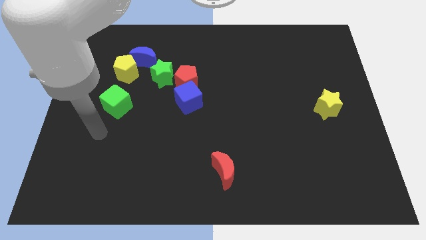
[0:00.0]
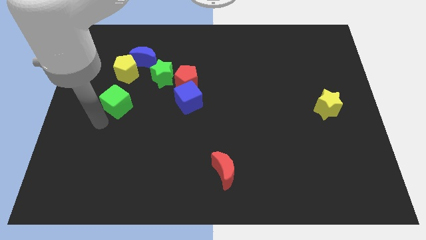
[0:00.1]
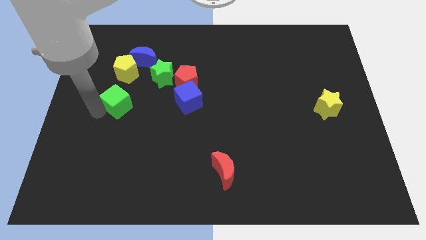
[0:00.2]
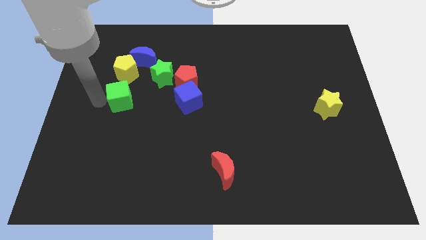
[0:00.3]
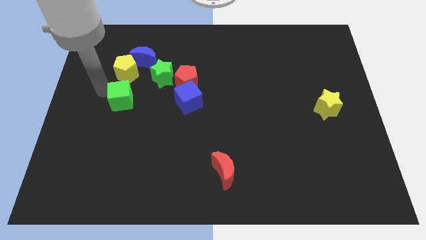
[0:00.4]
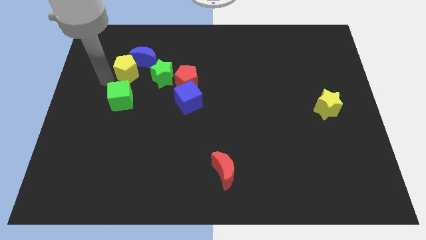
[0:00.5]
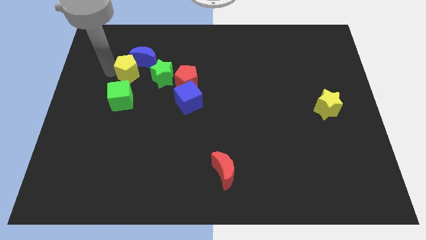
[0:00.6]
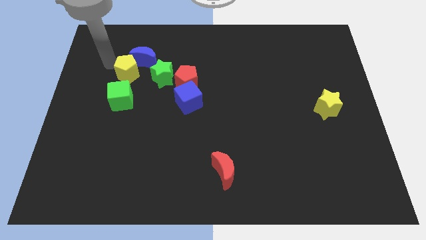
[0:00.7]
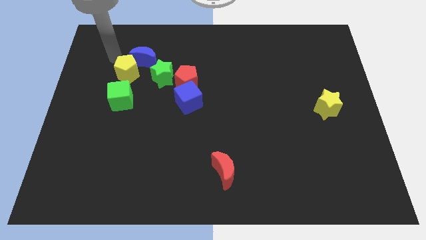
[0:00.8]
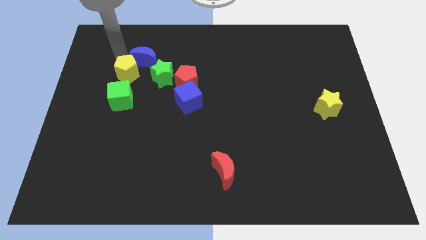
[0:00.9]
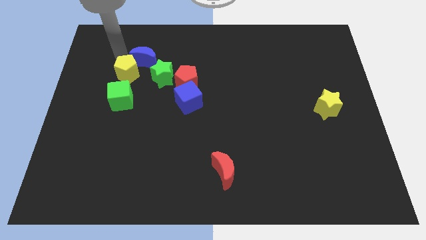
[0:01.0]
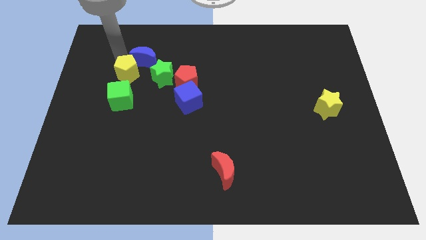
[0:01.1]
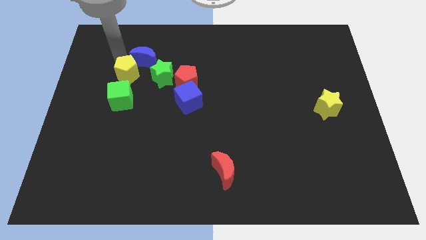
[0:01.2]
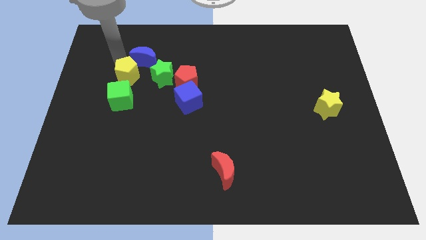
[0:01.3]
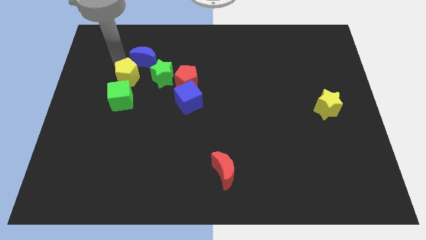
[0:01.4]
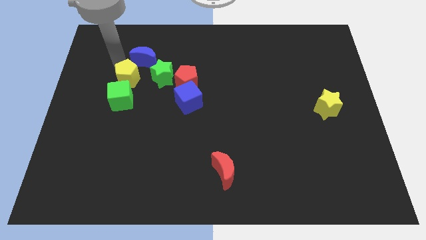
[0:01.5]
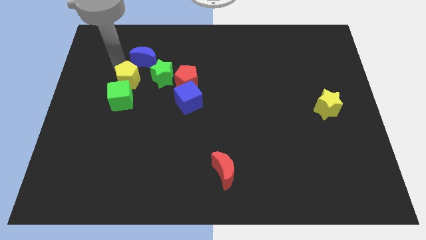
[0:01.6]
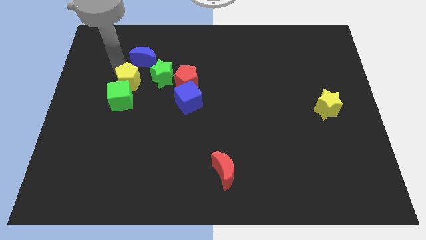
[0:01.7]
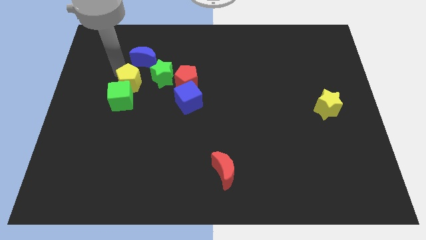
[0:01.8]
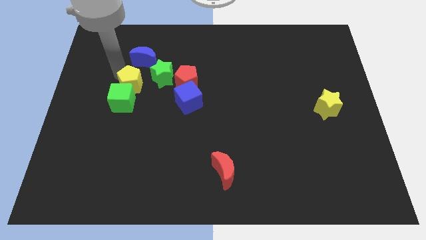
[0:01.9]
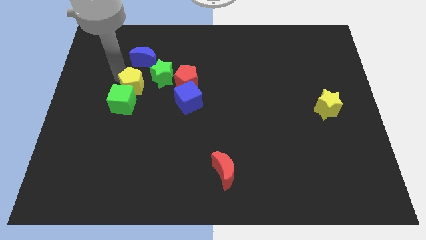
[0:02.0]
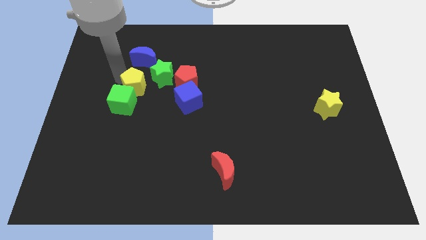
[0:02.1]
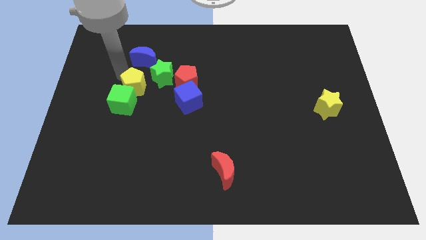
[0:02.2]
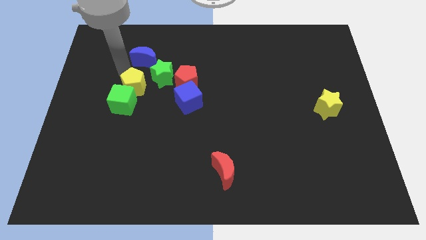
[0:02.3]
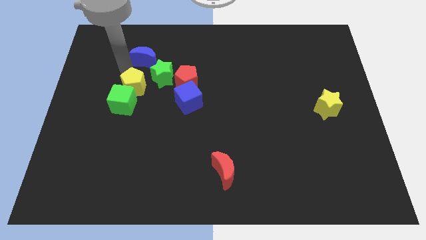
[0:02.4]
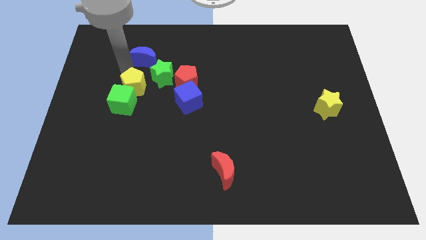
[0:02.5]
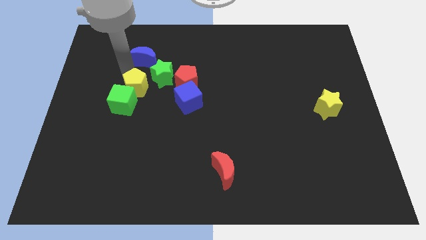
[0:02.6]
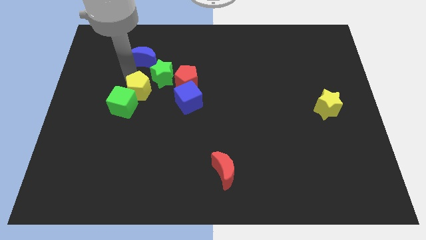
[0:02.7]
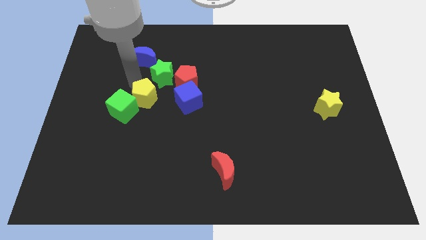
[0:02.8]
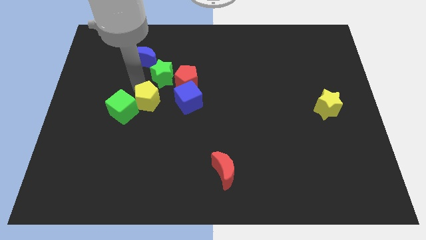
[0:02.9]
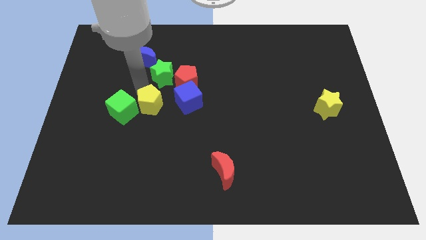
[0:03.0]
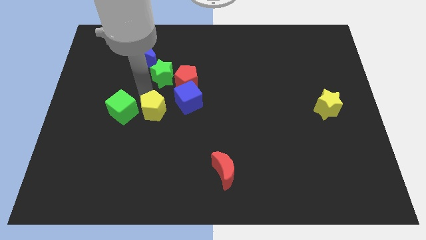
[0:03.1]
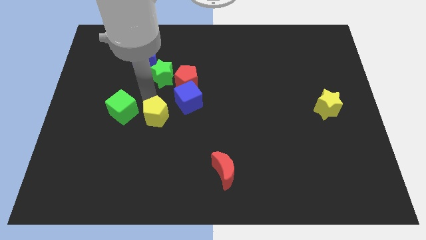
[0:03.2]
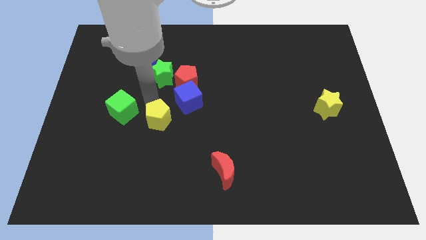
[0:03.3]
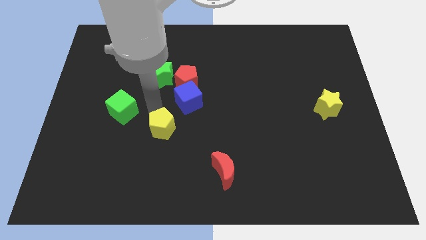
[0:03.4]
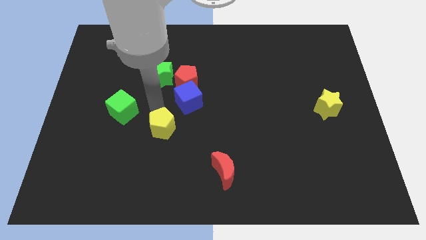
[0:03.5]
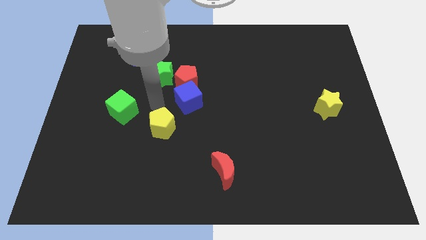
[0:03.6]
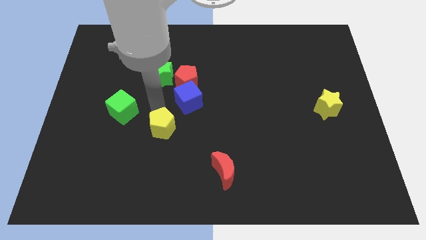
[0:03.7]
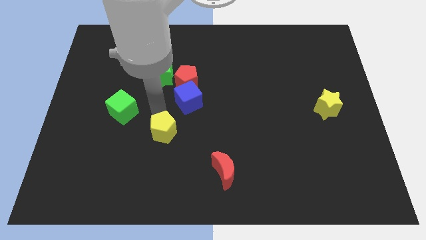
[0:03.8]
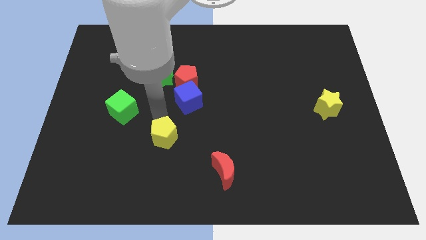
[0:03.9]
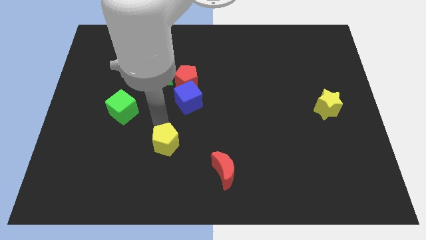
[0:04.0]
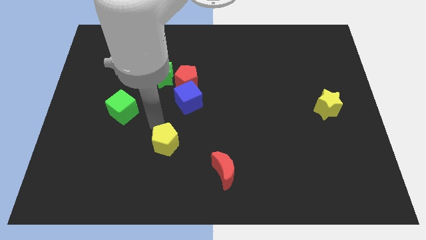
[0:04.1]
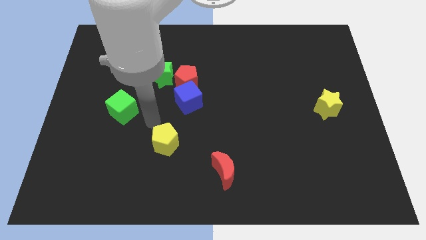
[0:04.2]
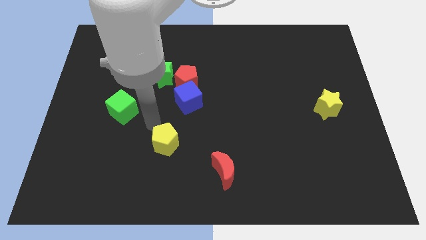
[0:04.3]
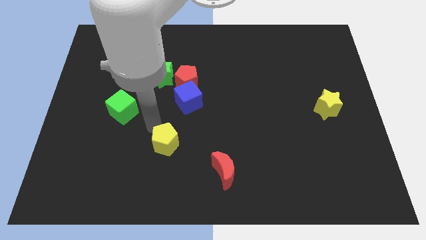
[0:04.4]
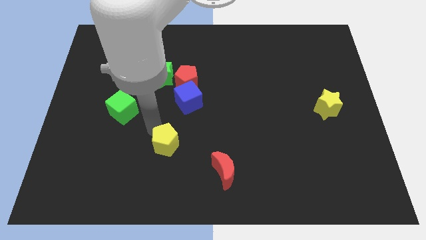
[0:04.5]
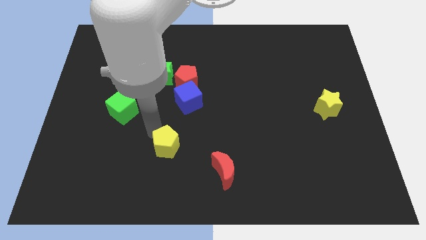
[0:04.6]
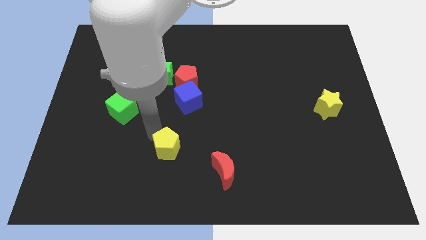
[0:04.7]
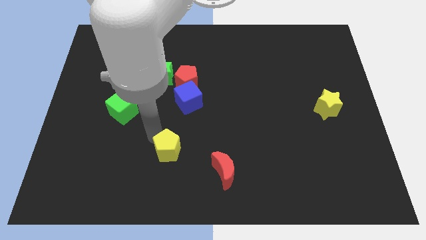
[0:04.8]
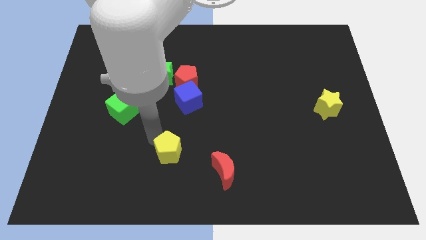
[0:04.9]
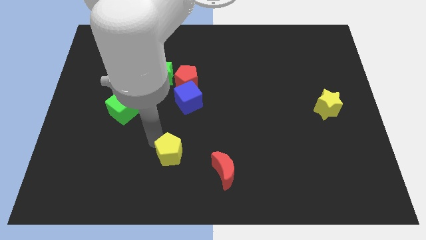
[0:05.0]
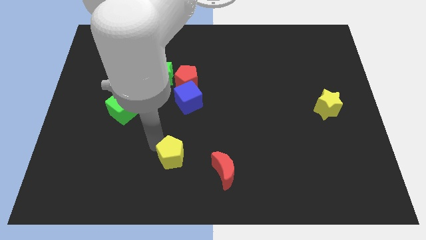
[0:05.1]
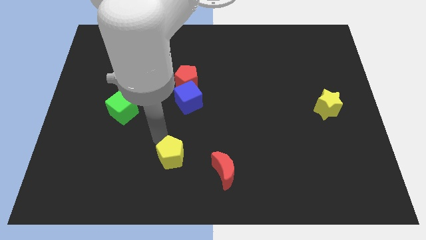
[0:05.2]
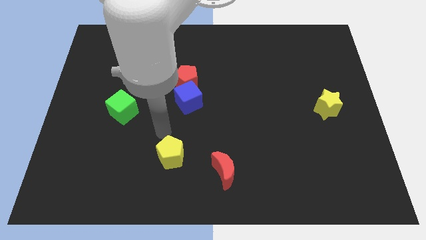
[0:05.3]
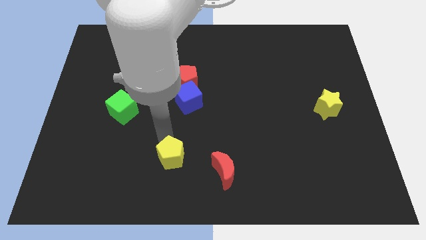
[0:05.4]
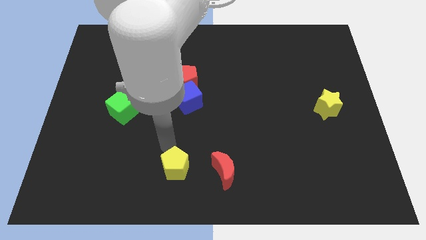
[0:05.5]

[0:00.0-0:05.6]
push the yellow pentagon to the bottom side

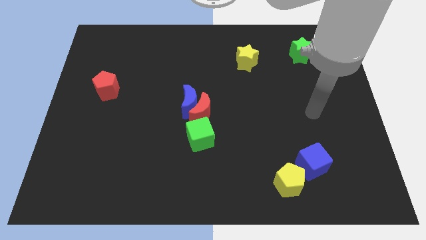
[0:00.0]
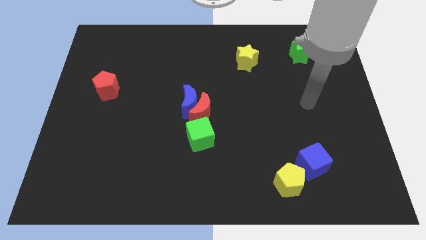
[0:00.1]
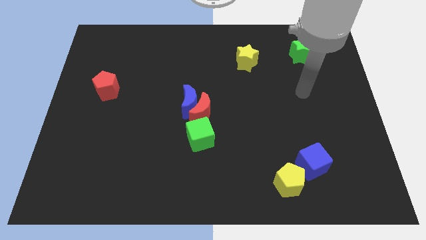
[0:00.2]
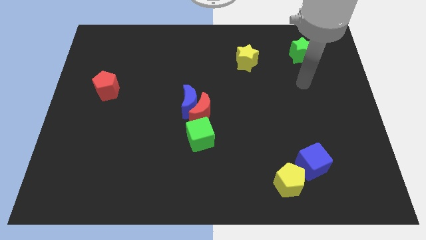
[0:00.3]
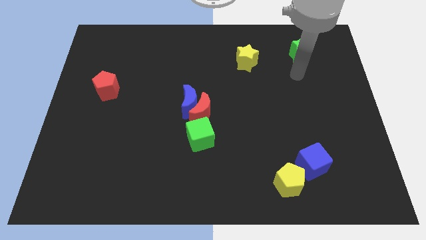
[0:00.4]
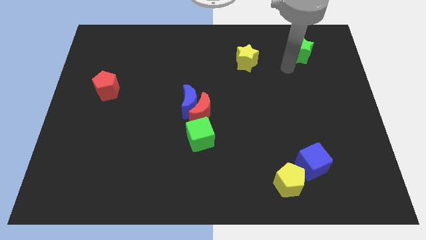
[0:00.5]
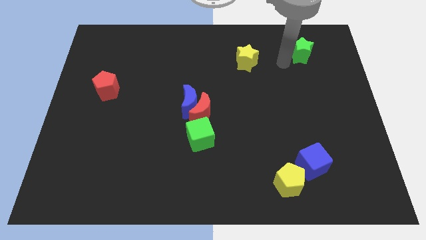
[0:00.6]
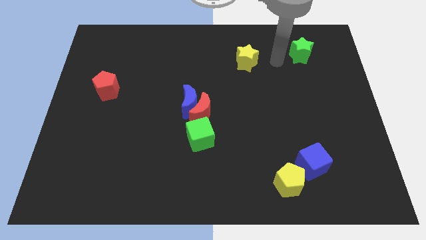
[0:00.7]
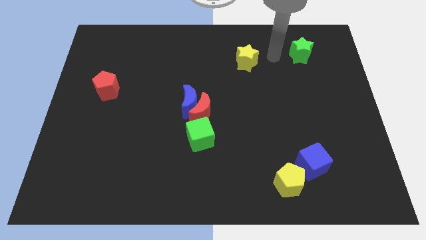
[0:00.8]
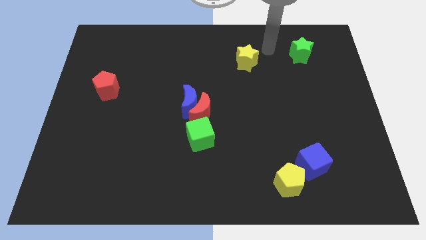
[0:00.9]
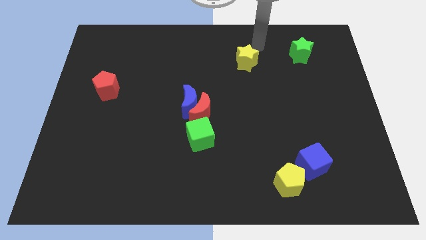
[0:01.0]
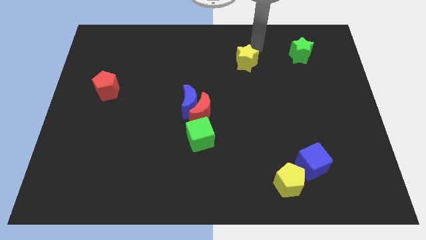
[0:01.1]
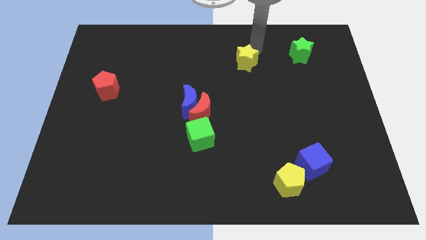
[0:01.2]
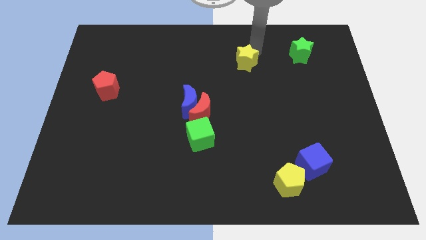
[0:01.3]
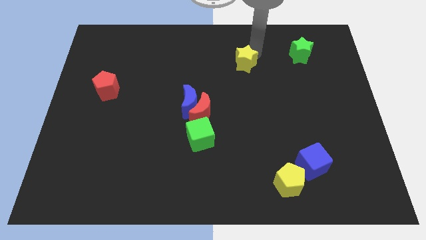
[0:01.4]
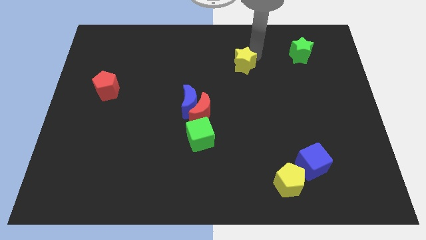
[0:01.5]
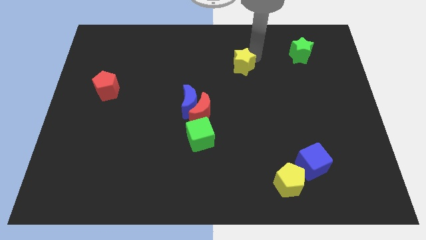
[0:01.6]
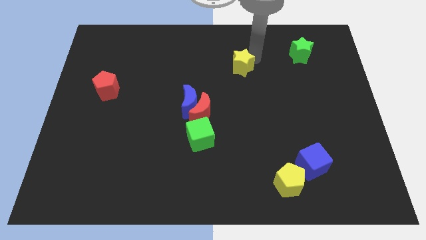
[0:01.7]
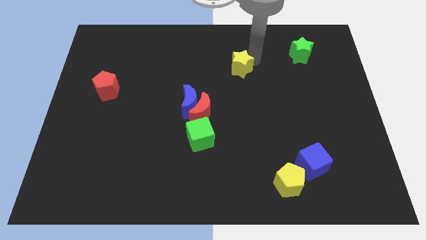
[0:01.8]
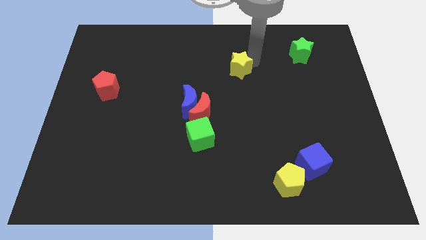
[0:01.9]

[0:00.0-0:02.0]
push the yellow star to the center of the board
